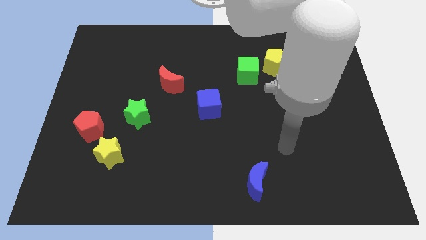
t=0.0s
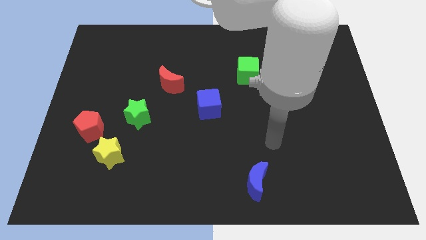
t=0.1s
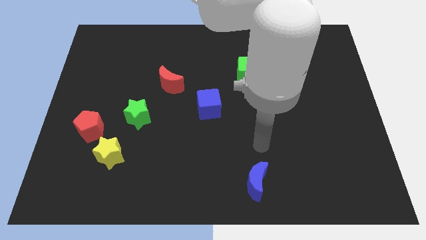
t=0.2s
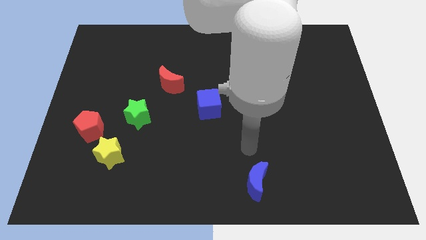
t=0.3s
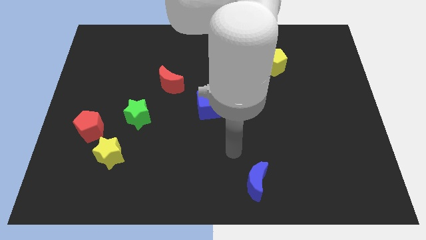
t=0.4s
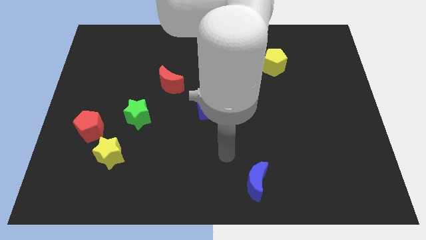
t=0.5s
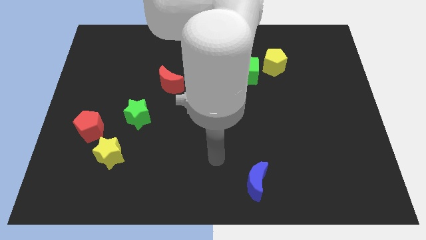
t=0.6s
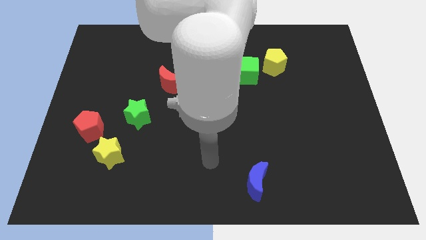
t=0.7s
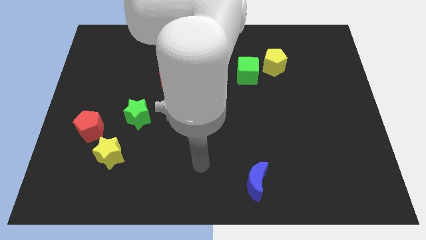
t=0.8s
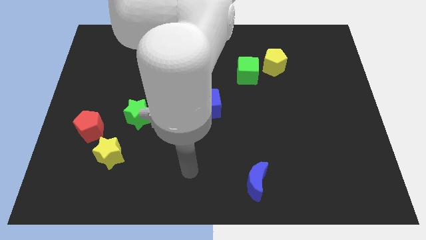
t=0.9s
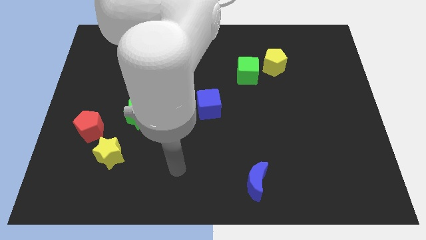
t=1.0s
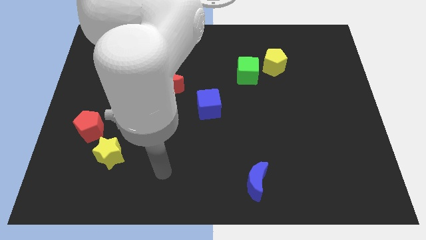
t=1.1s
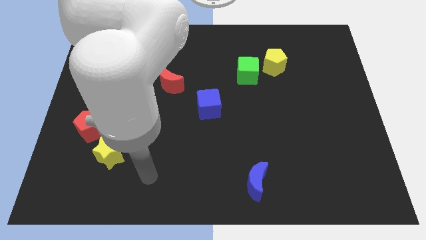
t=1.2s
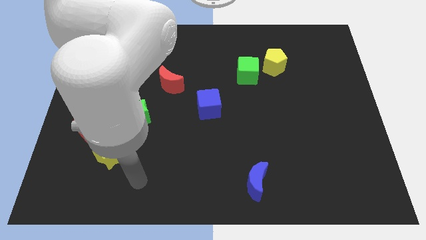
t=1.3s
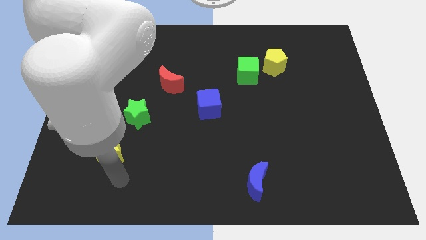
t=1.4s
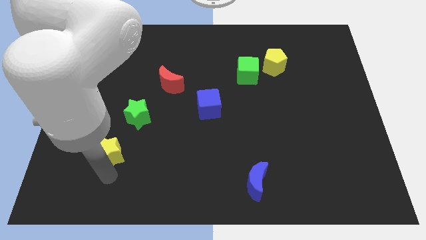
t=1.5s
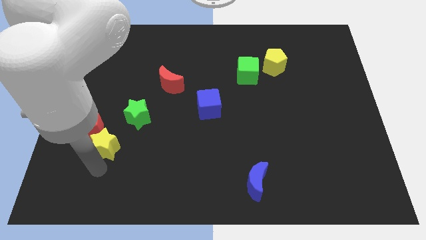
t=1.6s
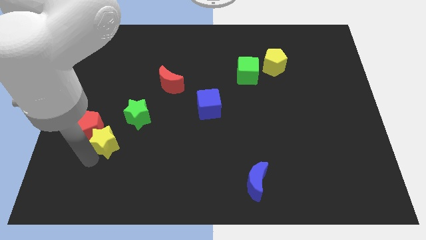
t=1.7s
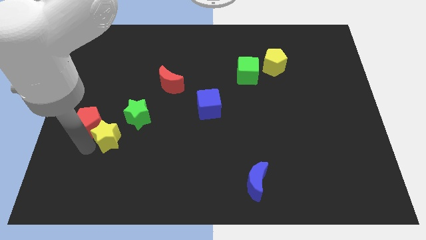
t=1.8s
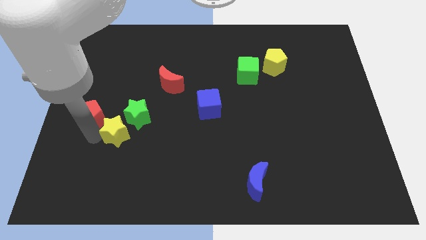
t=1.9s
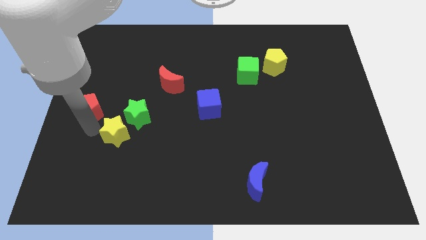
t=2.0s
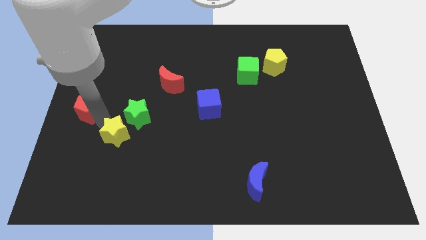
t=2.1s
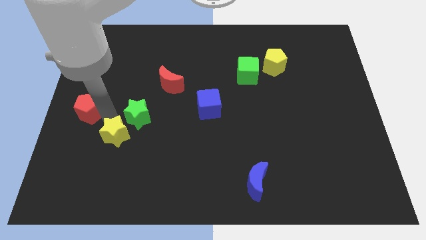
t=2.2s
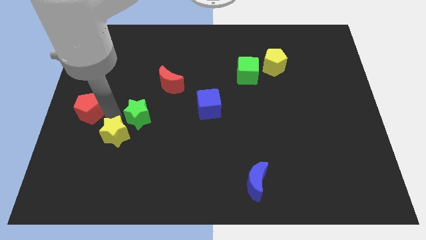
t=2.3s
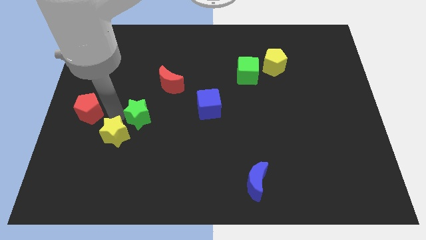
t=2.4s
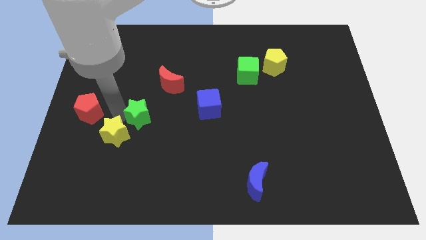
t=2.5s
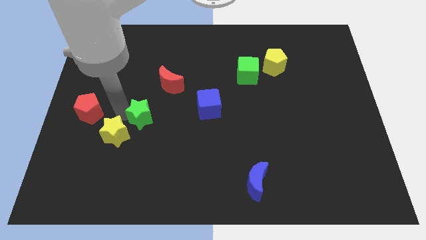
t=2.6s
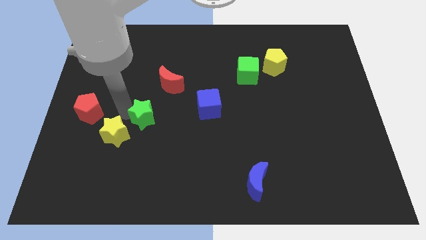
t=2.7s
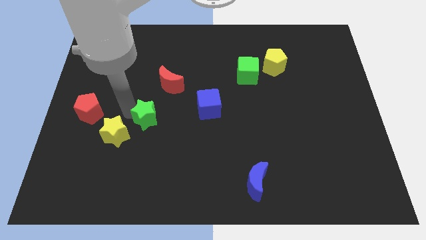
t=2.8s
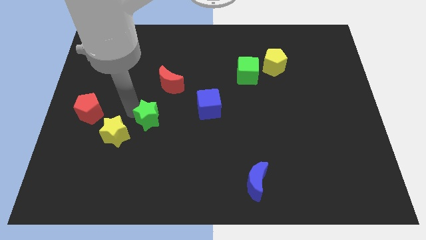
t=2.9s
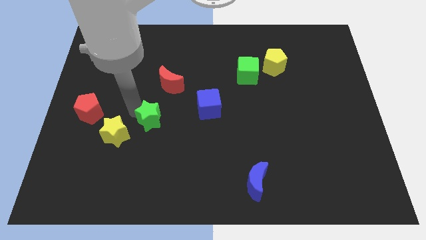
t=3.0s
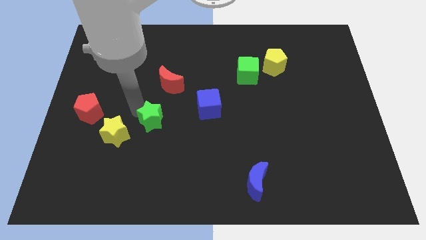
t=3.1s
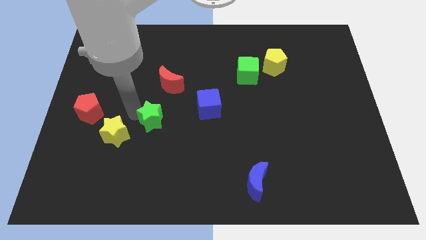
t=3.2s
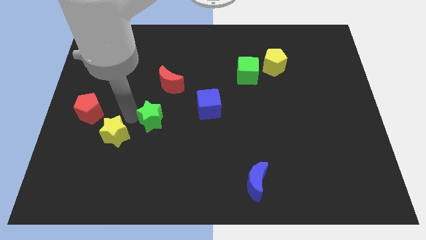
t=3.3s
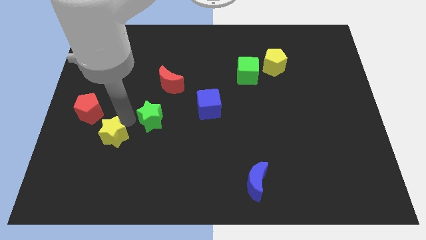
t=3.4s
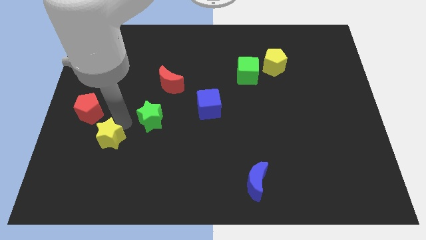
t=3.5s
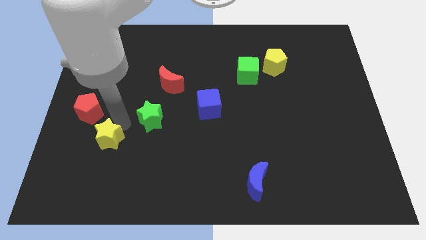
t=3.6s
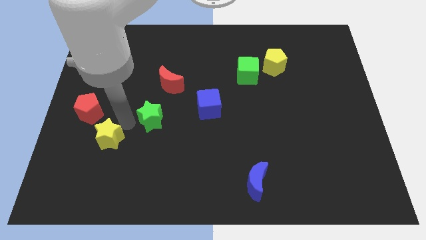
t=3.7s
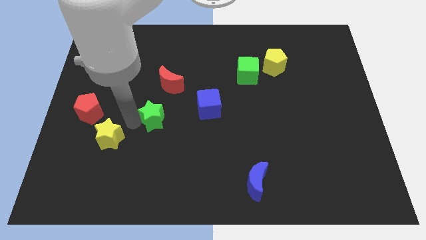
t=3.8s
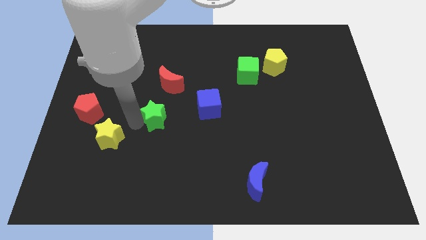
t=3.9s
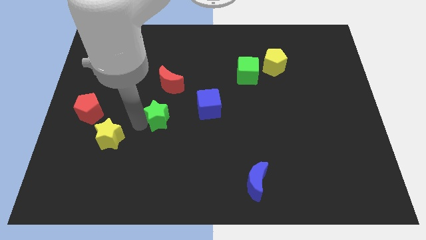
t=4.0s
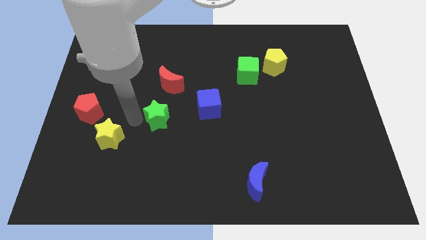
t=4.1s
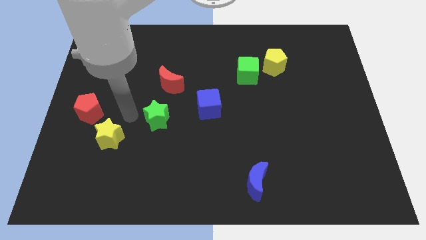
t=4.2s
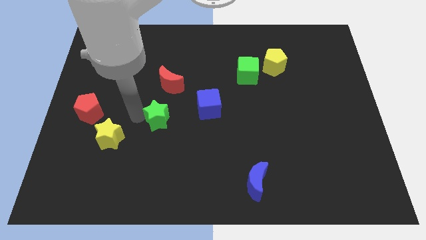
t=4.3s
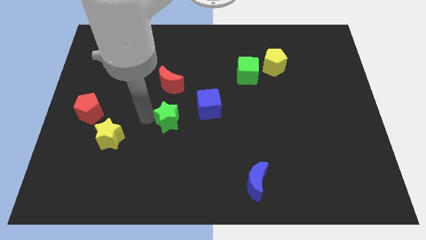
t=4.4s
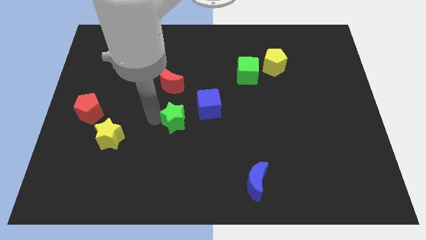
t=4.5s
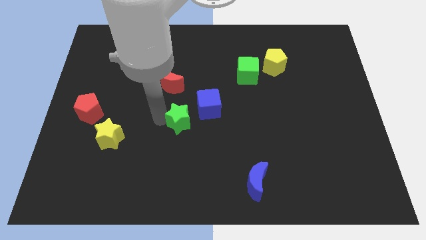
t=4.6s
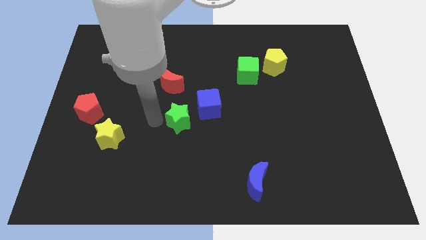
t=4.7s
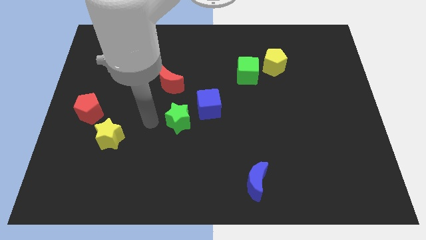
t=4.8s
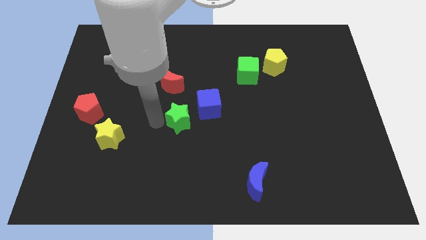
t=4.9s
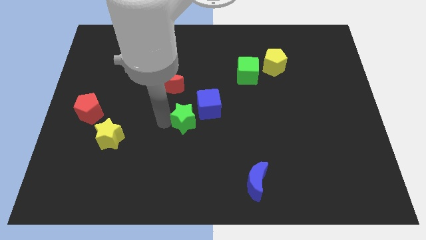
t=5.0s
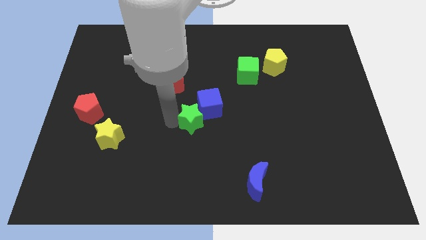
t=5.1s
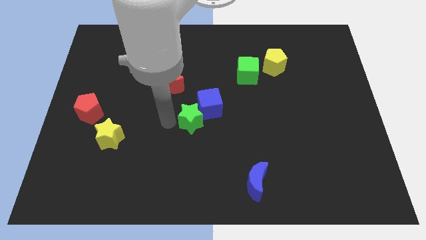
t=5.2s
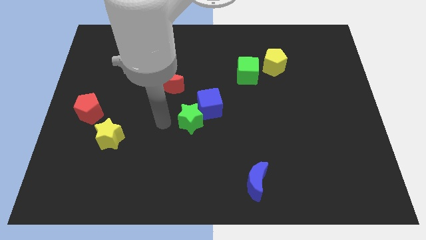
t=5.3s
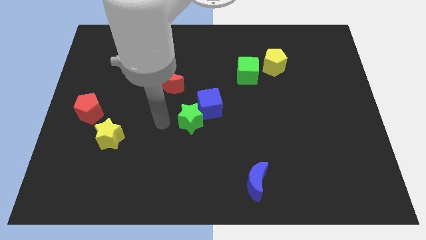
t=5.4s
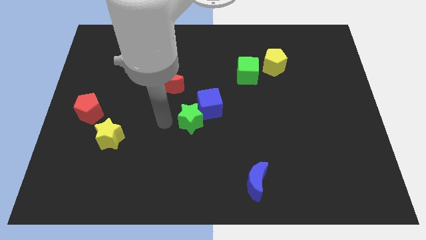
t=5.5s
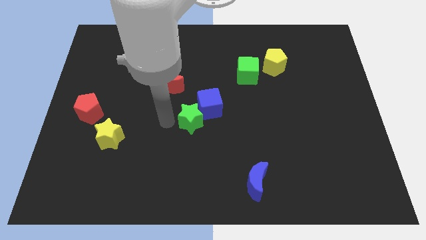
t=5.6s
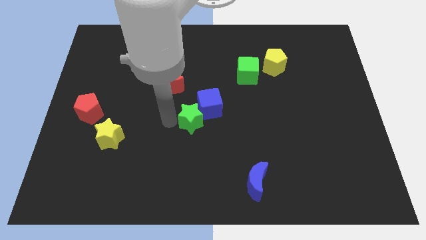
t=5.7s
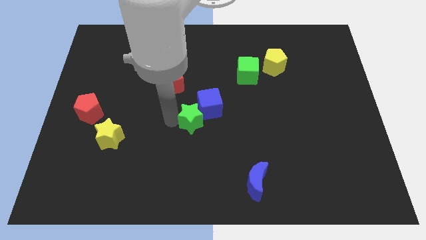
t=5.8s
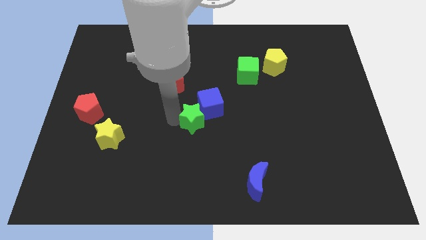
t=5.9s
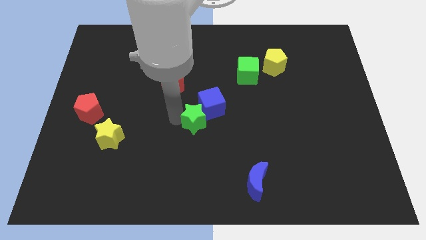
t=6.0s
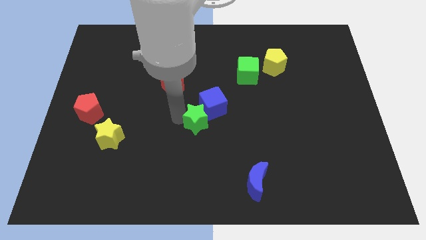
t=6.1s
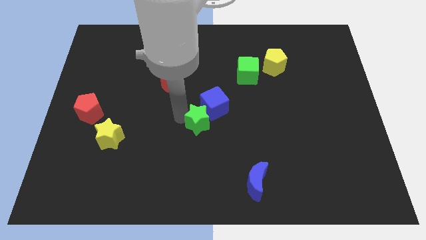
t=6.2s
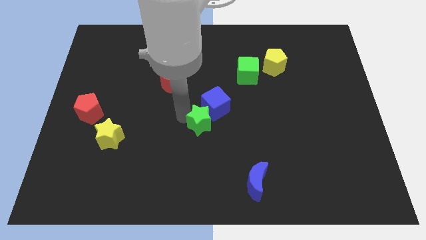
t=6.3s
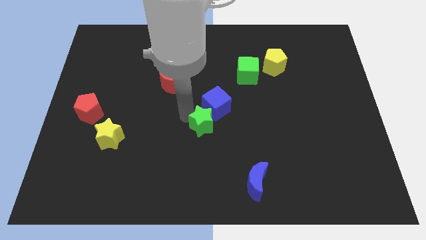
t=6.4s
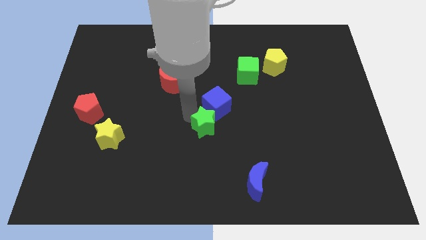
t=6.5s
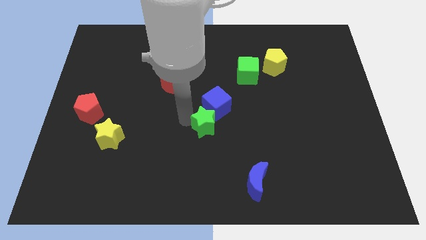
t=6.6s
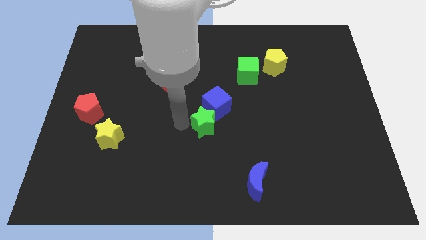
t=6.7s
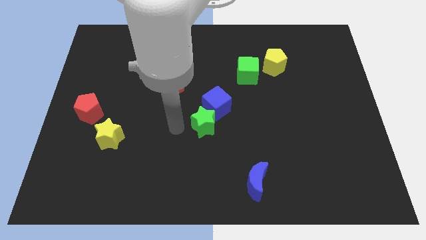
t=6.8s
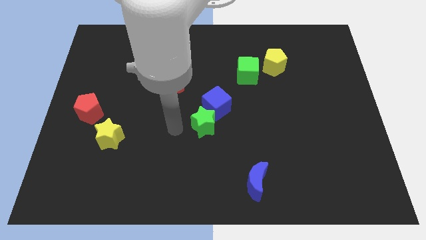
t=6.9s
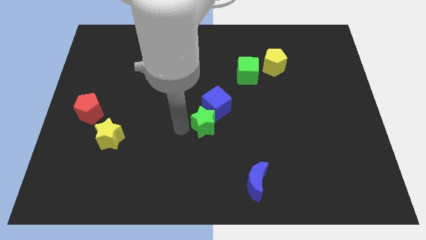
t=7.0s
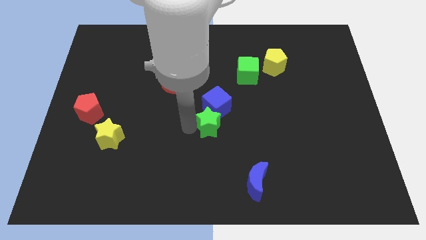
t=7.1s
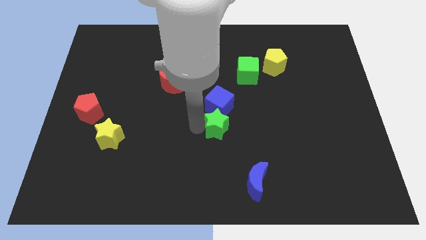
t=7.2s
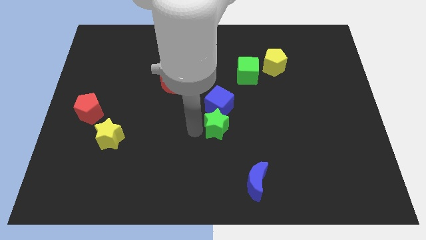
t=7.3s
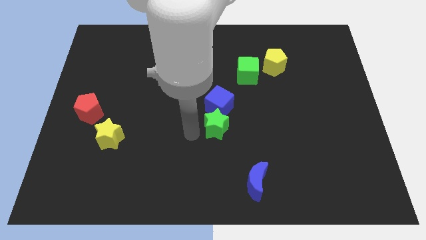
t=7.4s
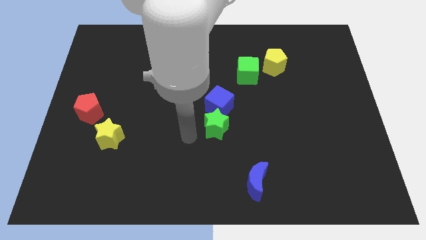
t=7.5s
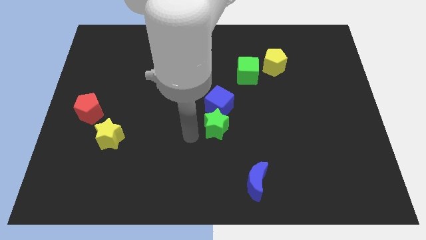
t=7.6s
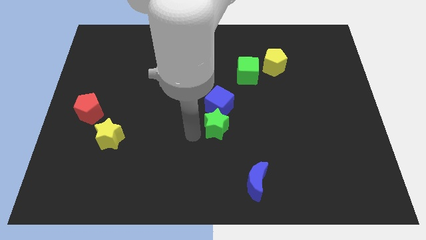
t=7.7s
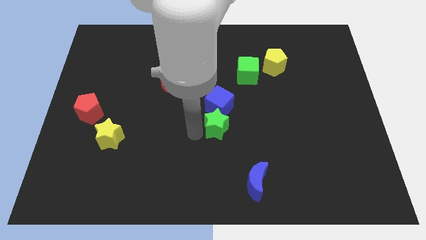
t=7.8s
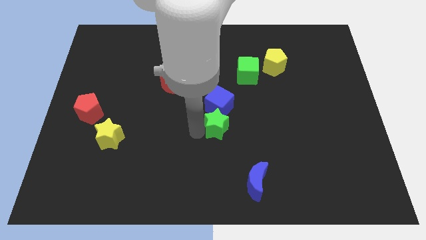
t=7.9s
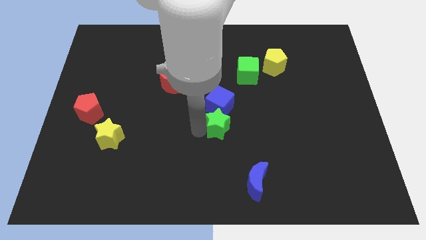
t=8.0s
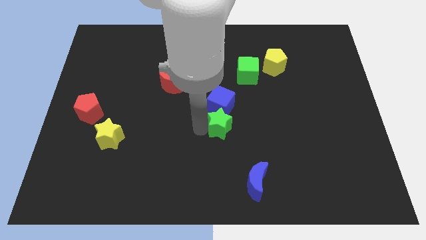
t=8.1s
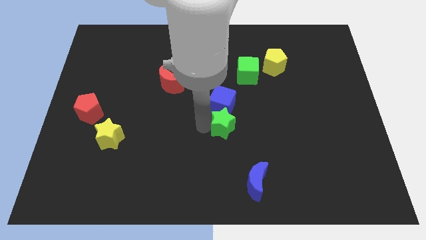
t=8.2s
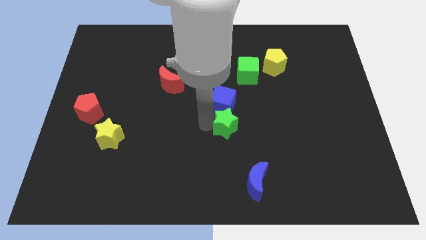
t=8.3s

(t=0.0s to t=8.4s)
push the green star to the right
